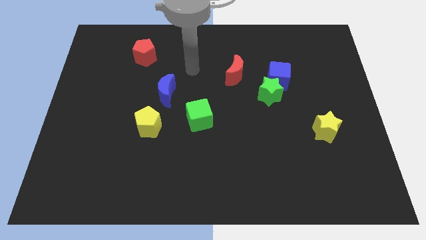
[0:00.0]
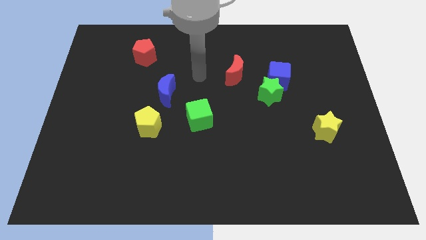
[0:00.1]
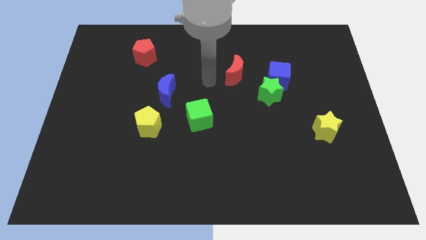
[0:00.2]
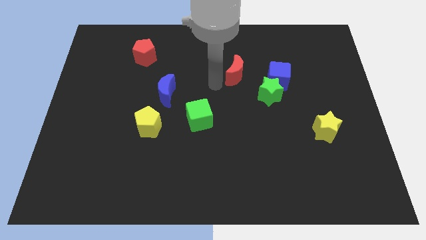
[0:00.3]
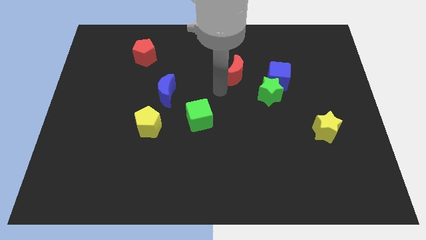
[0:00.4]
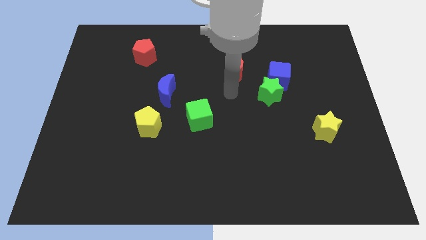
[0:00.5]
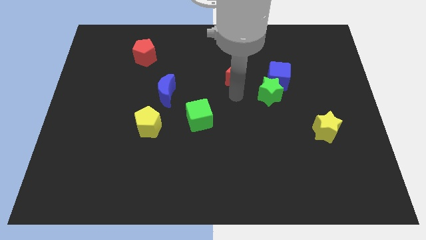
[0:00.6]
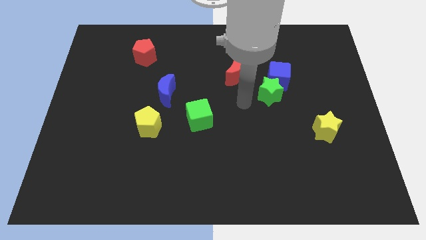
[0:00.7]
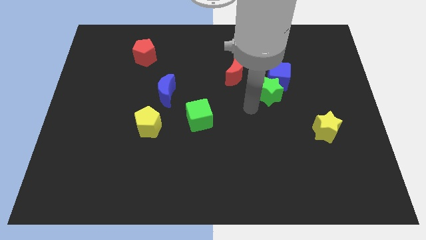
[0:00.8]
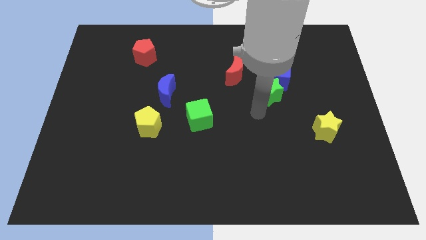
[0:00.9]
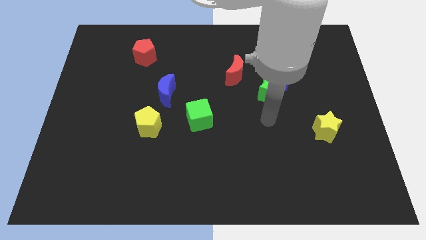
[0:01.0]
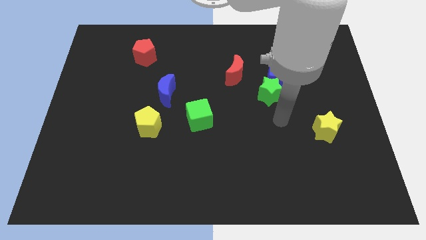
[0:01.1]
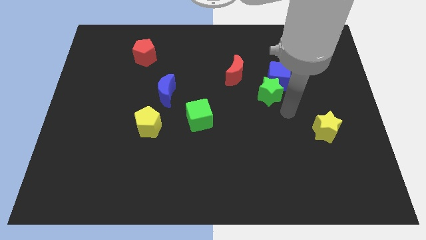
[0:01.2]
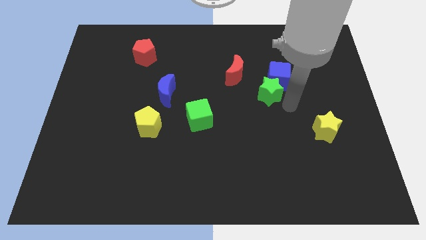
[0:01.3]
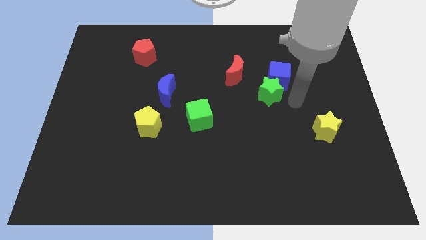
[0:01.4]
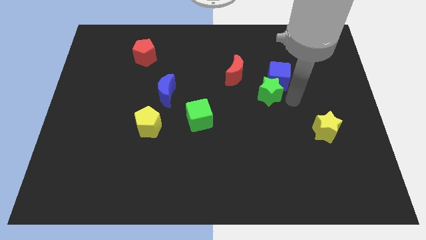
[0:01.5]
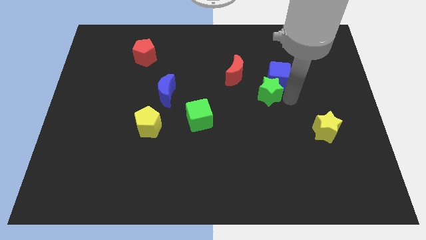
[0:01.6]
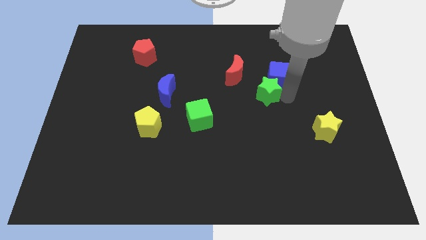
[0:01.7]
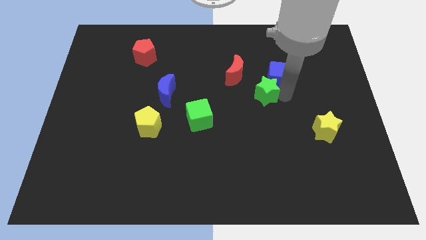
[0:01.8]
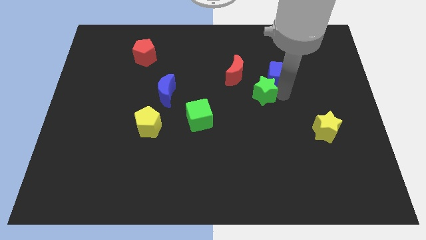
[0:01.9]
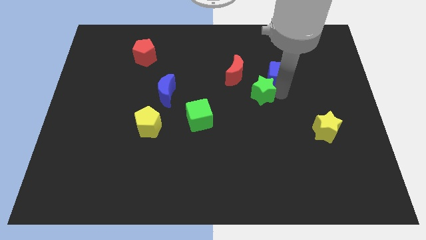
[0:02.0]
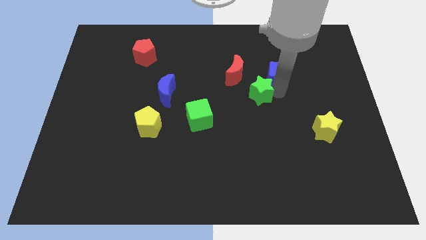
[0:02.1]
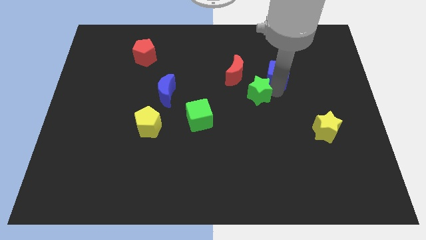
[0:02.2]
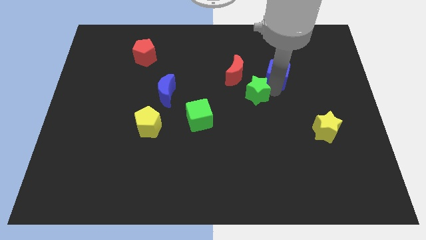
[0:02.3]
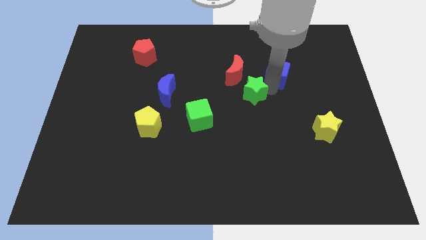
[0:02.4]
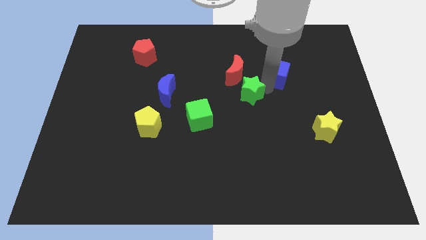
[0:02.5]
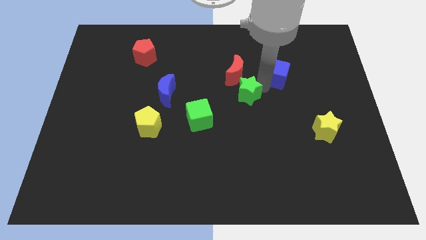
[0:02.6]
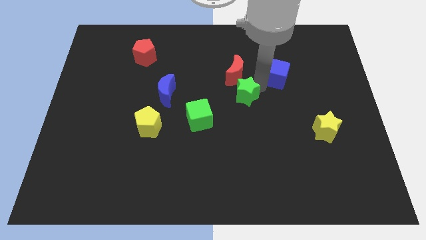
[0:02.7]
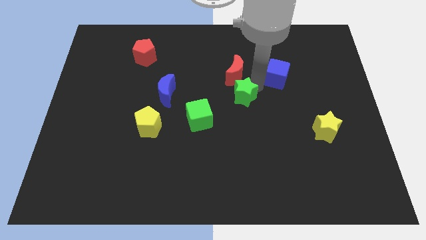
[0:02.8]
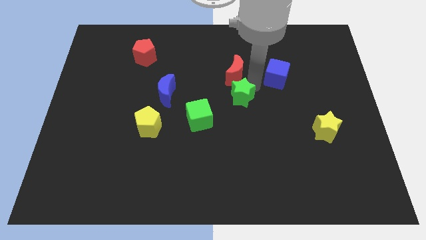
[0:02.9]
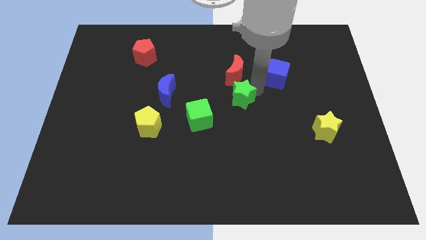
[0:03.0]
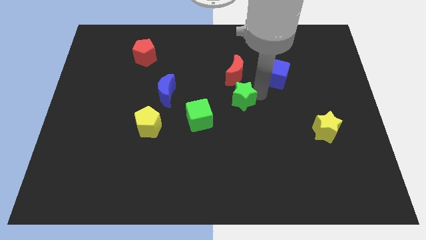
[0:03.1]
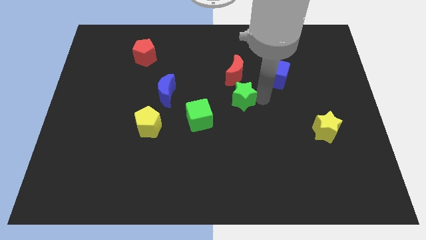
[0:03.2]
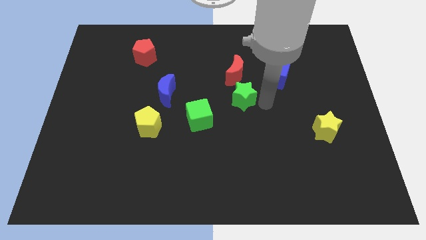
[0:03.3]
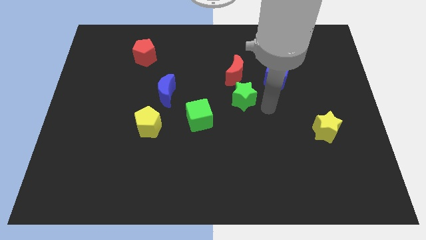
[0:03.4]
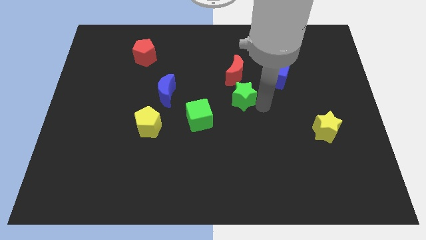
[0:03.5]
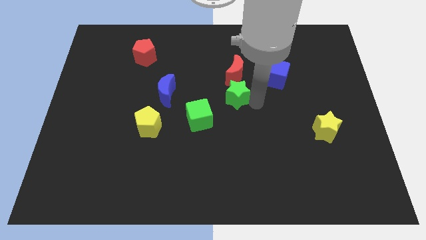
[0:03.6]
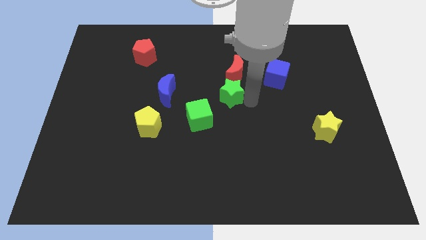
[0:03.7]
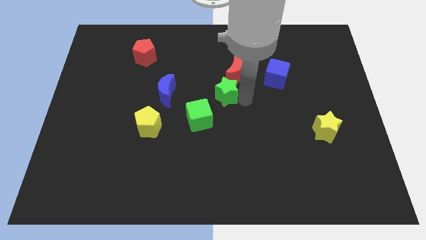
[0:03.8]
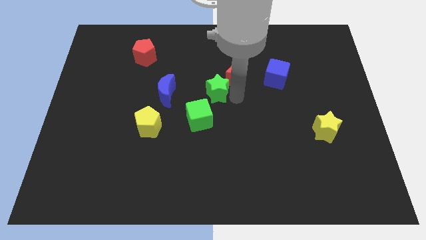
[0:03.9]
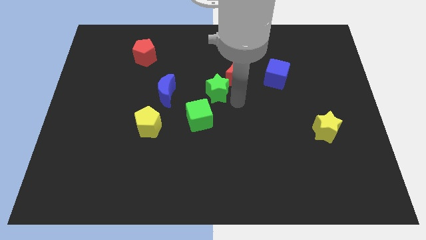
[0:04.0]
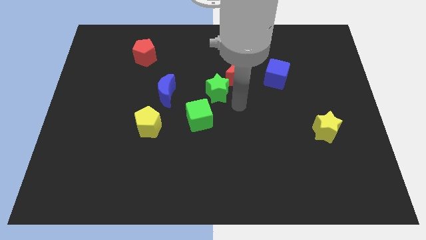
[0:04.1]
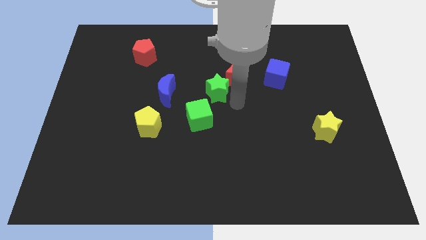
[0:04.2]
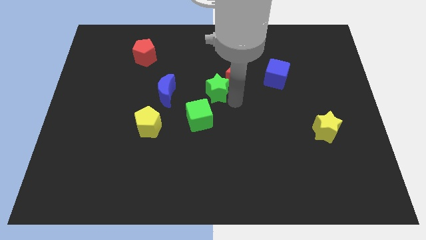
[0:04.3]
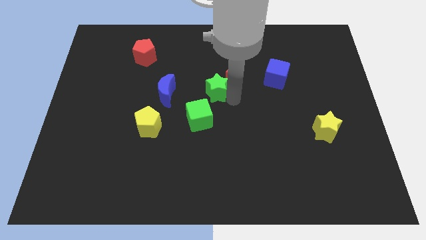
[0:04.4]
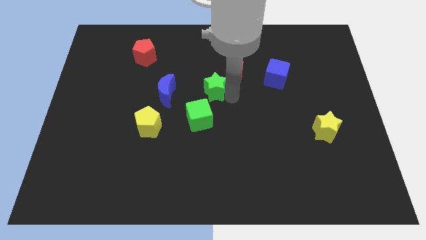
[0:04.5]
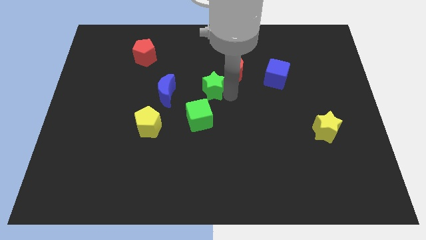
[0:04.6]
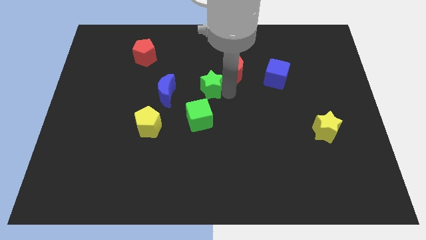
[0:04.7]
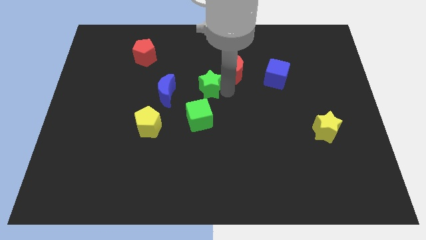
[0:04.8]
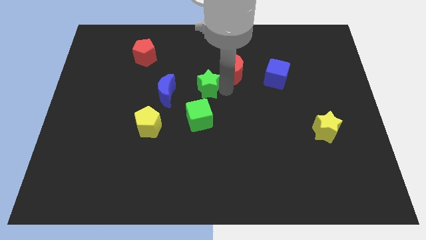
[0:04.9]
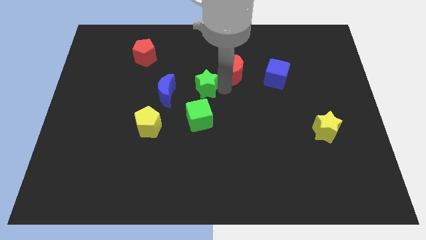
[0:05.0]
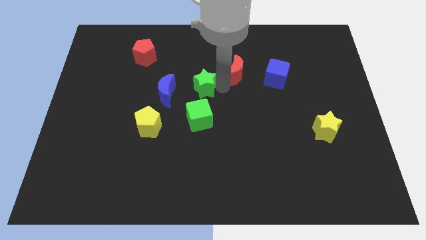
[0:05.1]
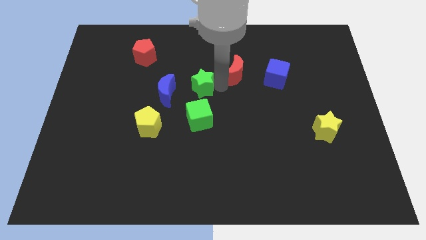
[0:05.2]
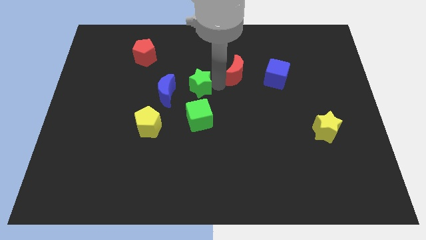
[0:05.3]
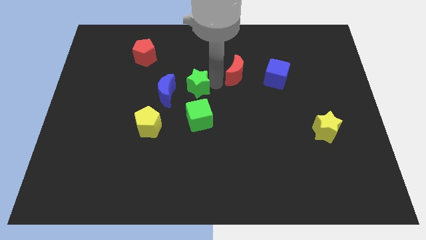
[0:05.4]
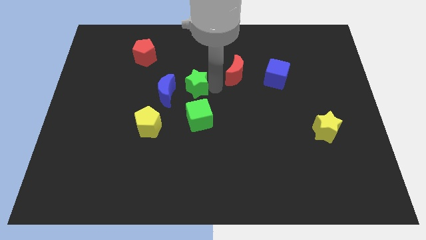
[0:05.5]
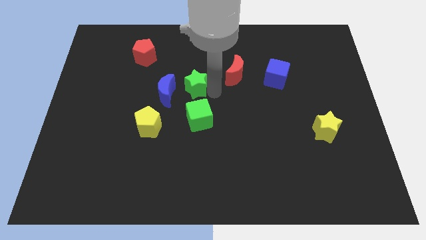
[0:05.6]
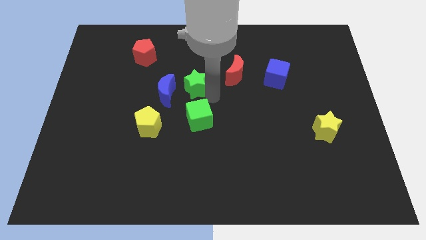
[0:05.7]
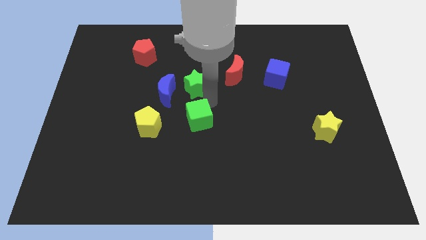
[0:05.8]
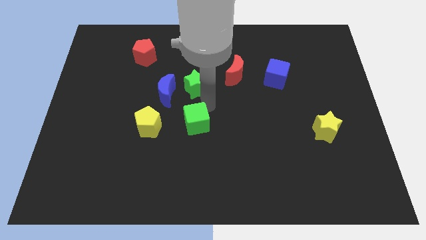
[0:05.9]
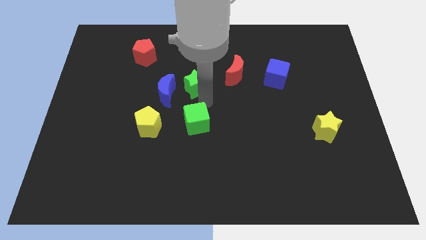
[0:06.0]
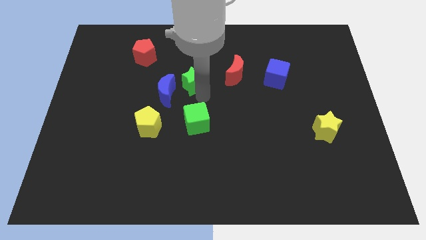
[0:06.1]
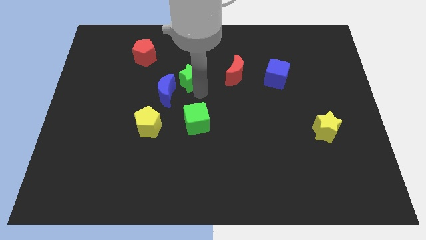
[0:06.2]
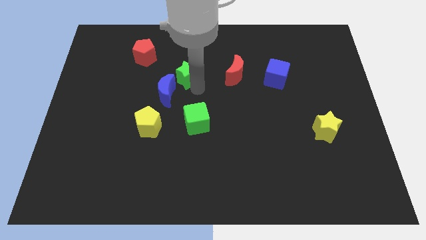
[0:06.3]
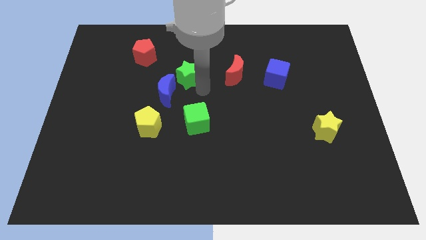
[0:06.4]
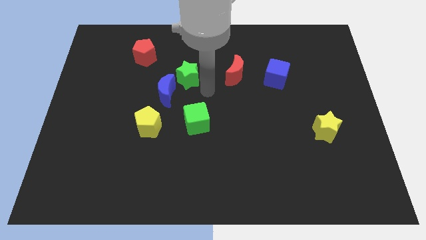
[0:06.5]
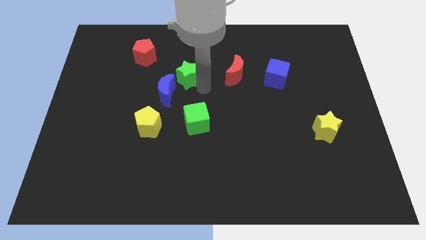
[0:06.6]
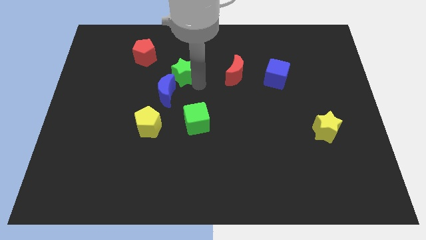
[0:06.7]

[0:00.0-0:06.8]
push the green star above the blue moon

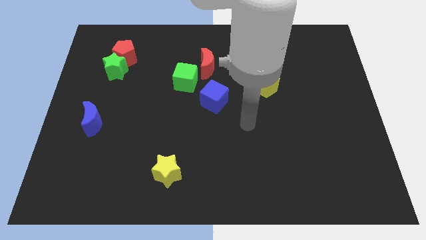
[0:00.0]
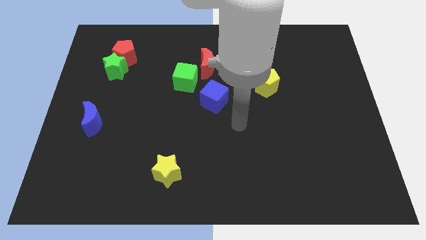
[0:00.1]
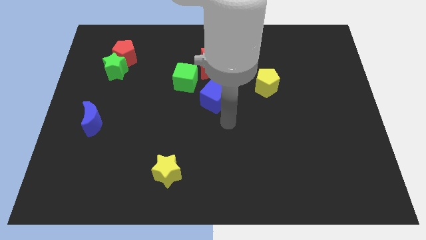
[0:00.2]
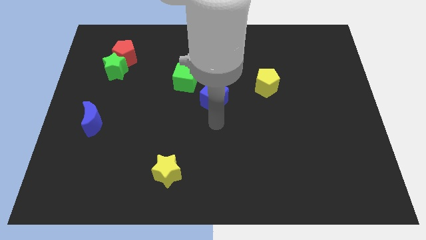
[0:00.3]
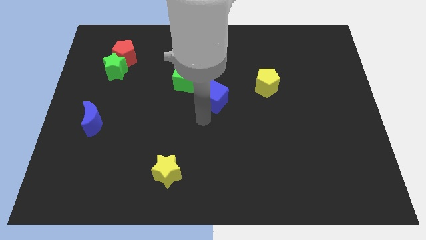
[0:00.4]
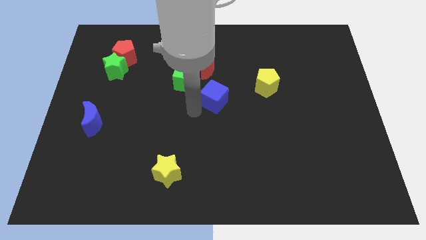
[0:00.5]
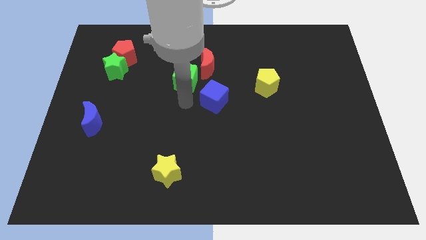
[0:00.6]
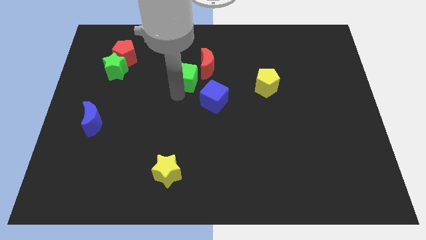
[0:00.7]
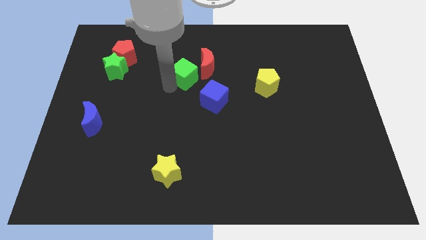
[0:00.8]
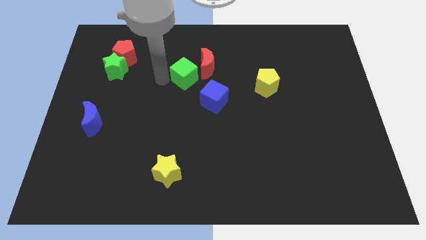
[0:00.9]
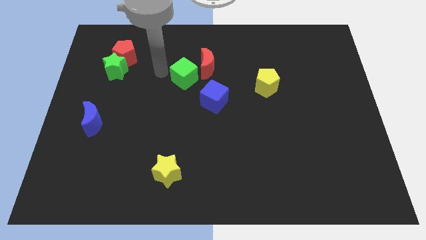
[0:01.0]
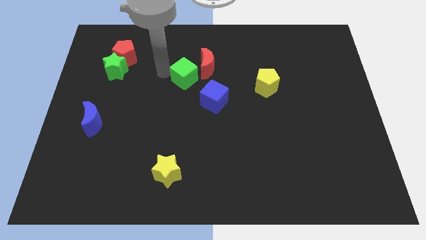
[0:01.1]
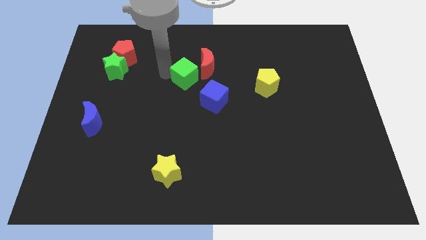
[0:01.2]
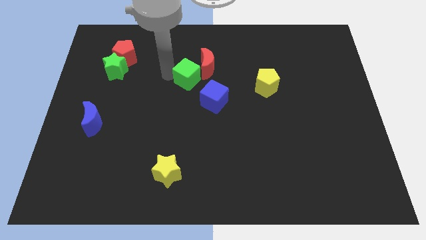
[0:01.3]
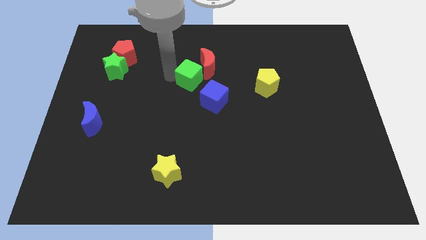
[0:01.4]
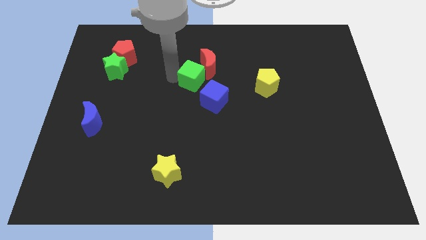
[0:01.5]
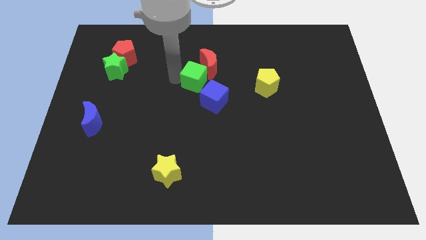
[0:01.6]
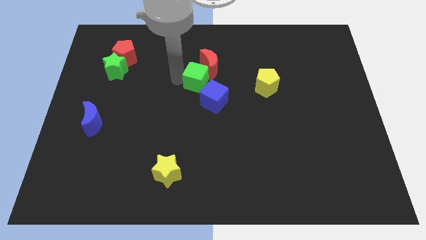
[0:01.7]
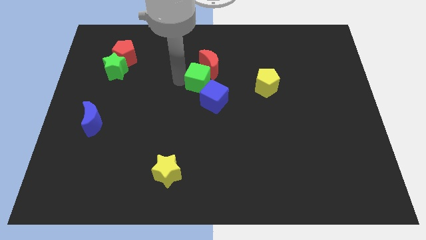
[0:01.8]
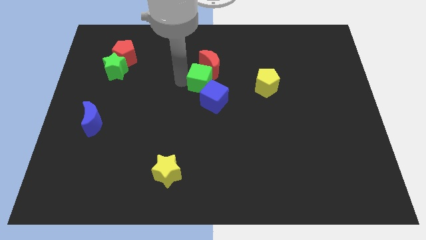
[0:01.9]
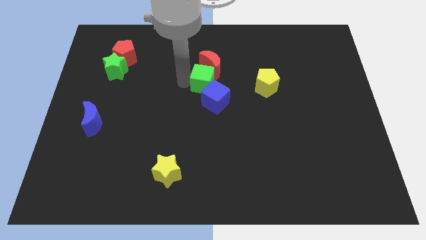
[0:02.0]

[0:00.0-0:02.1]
move the green cube just left of the yellow pentagon
